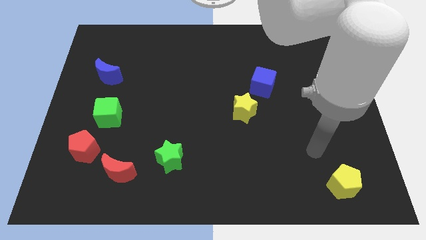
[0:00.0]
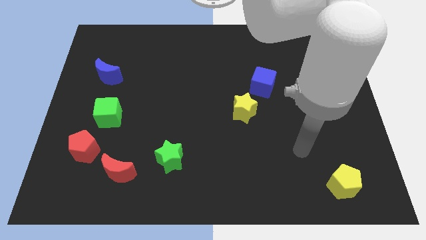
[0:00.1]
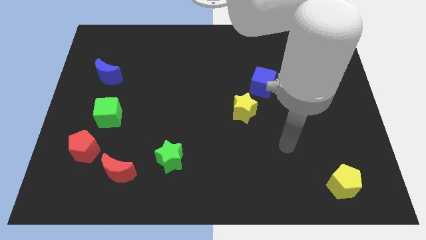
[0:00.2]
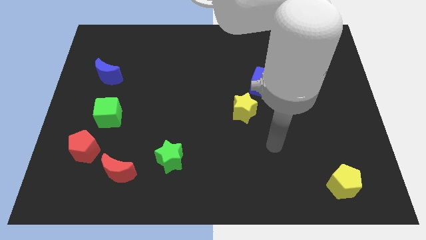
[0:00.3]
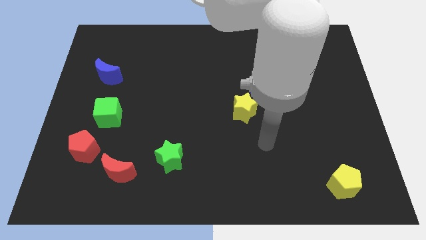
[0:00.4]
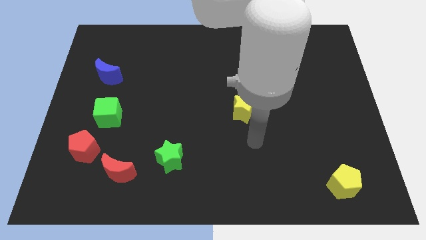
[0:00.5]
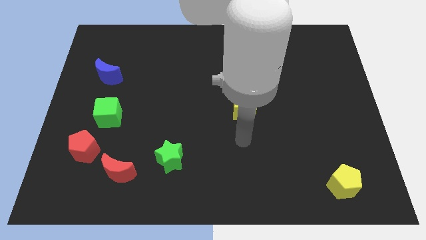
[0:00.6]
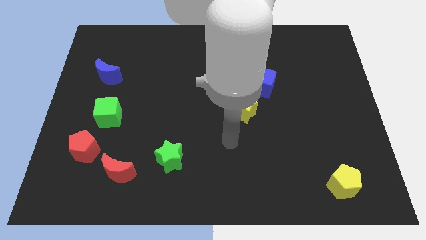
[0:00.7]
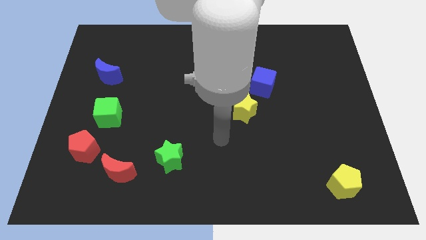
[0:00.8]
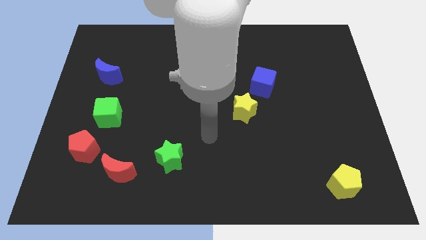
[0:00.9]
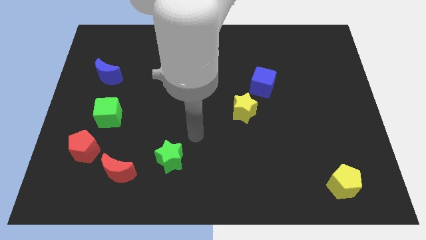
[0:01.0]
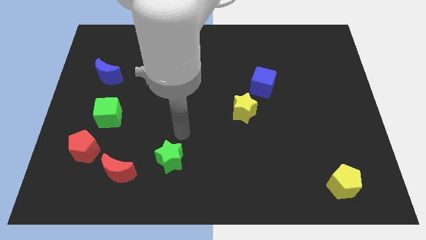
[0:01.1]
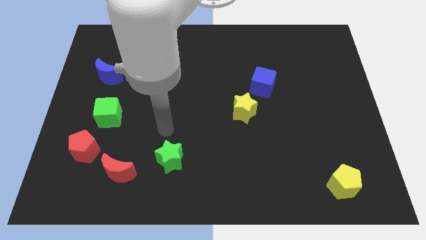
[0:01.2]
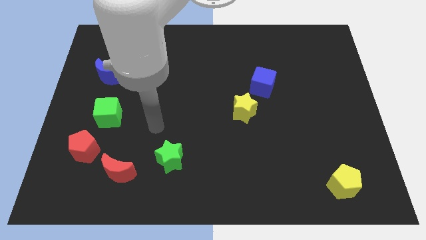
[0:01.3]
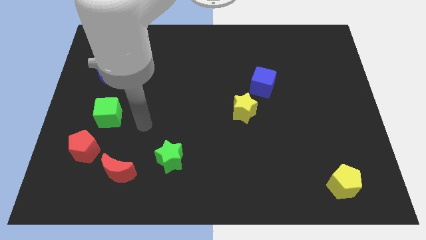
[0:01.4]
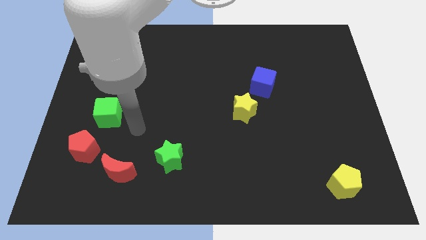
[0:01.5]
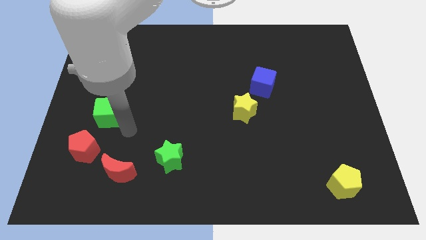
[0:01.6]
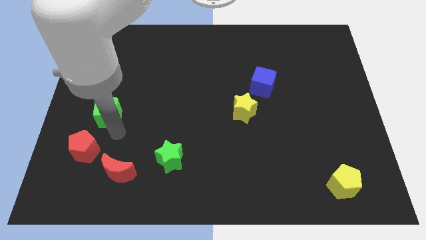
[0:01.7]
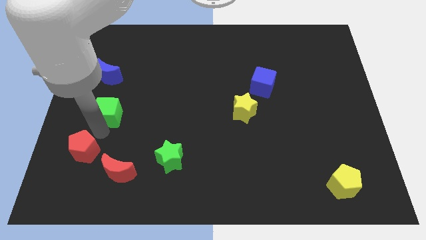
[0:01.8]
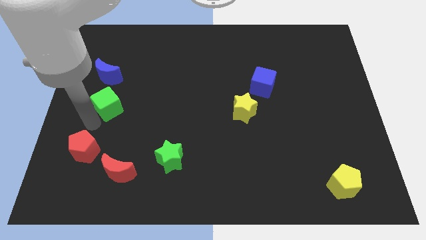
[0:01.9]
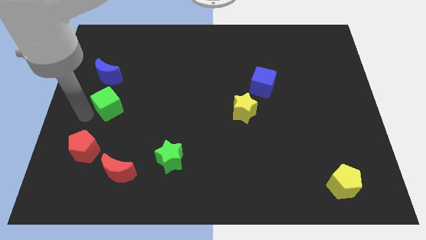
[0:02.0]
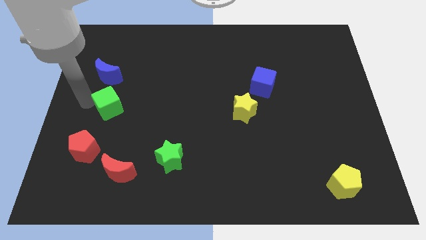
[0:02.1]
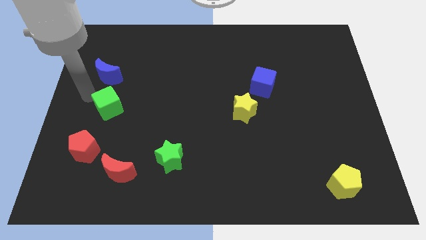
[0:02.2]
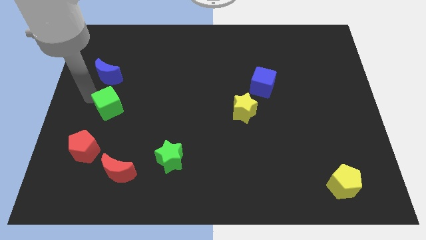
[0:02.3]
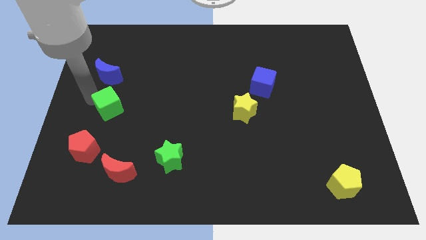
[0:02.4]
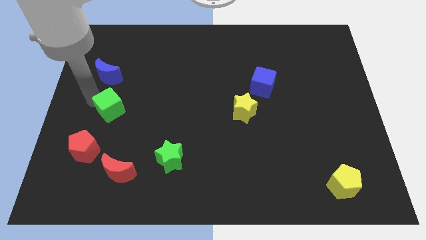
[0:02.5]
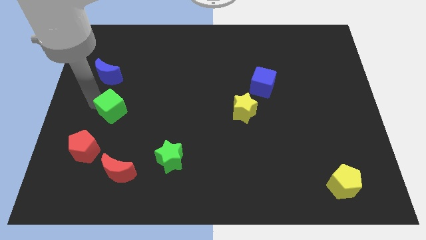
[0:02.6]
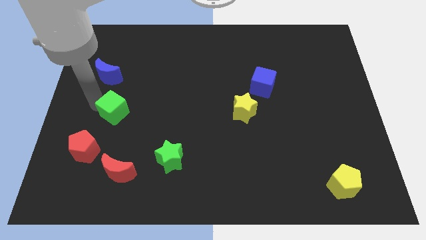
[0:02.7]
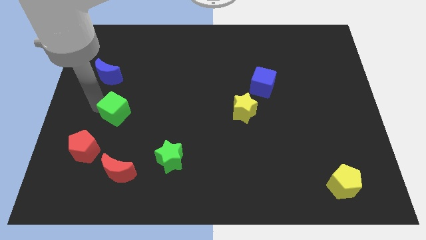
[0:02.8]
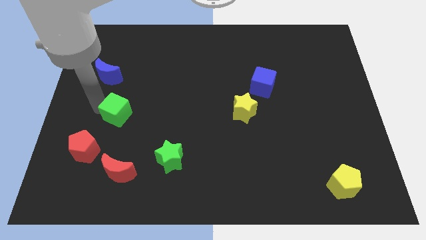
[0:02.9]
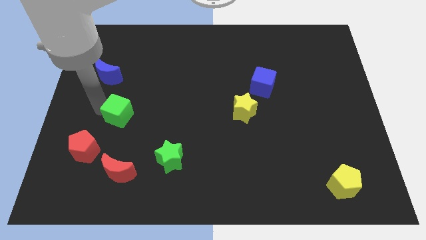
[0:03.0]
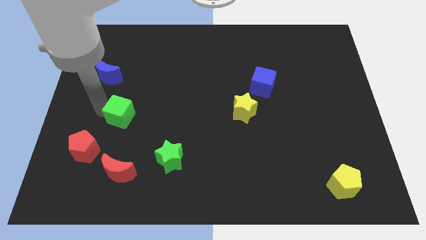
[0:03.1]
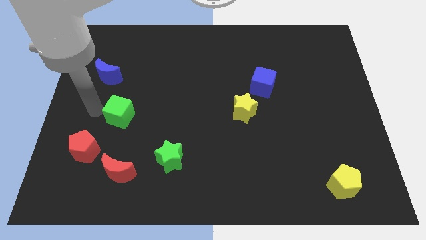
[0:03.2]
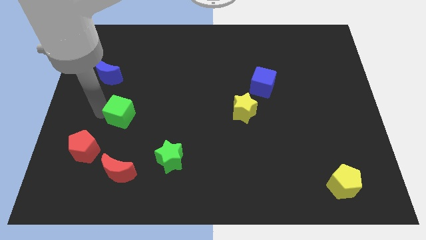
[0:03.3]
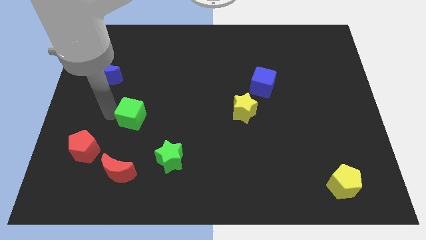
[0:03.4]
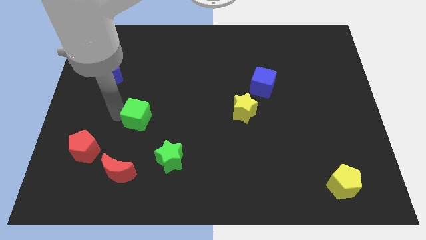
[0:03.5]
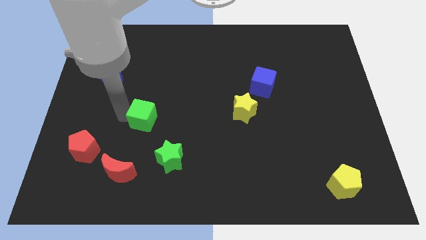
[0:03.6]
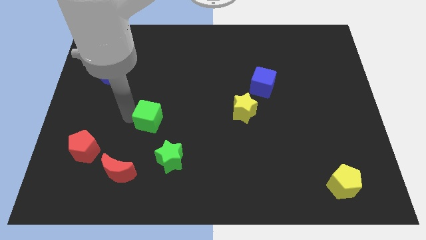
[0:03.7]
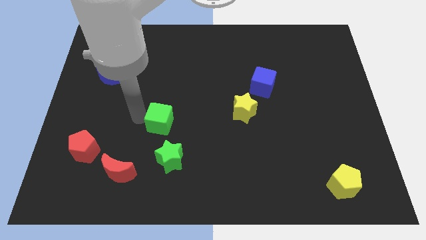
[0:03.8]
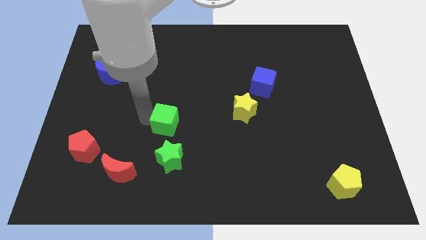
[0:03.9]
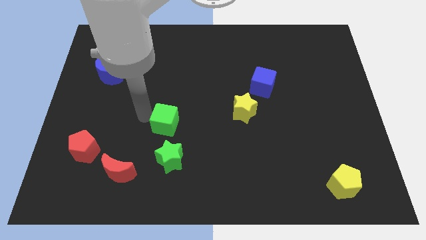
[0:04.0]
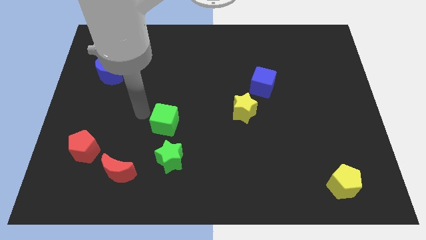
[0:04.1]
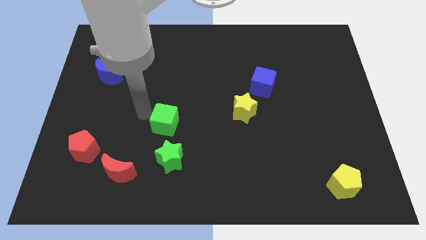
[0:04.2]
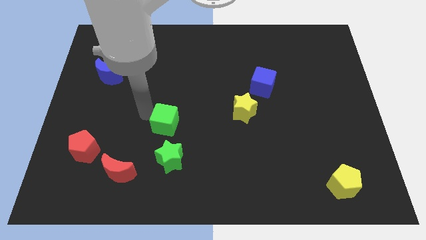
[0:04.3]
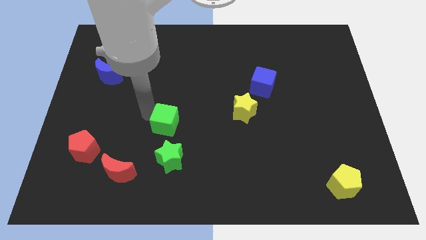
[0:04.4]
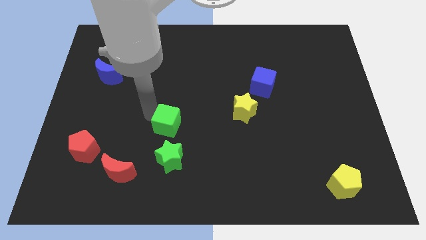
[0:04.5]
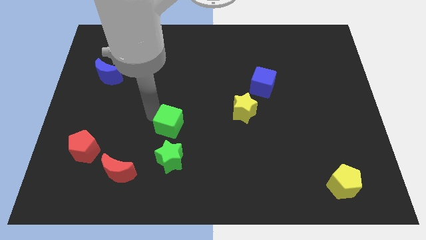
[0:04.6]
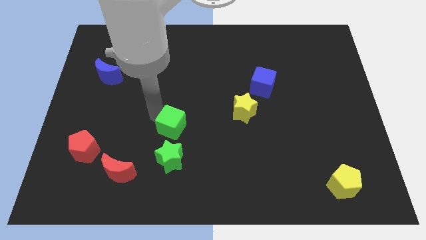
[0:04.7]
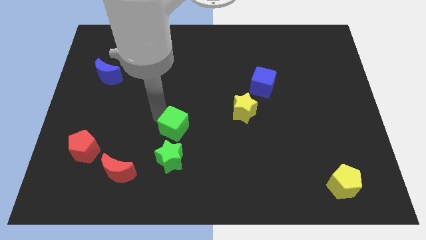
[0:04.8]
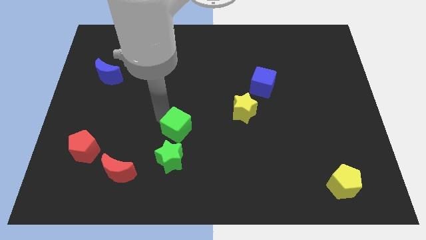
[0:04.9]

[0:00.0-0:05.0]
put the green cube diagonally up and to the right of the green star

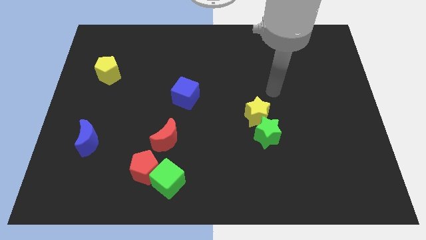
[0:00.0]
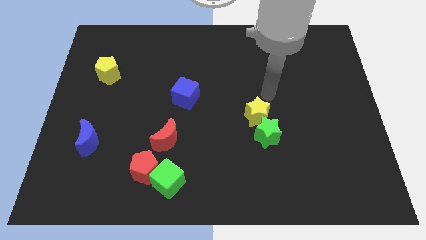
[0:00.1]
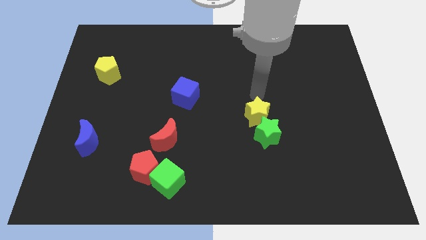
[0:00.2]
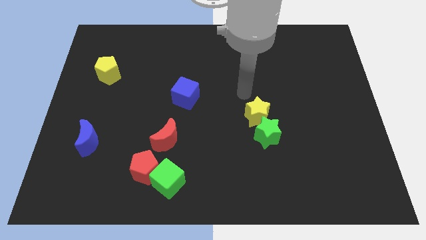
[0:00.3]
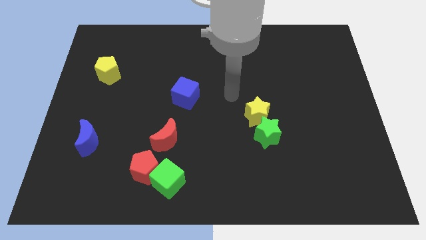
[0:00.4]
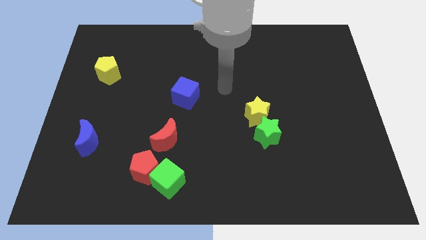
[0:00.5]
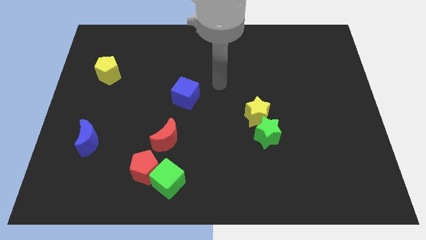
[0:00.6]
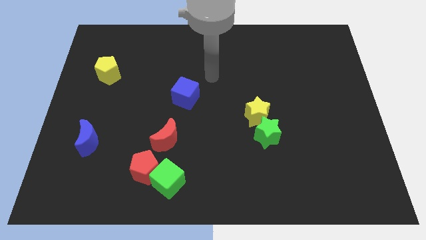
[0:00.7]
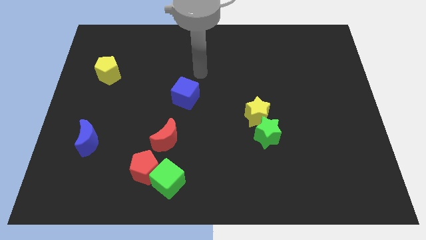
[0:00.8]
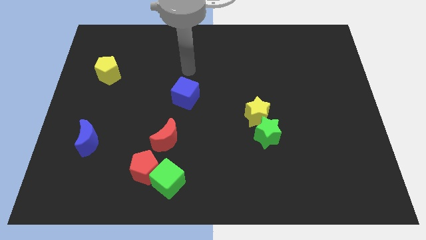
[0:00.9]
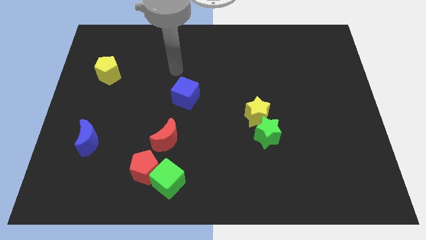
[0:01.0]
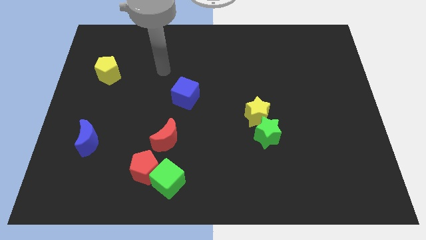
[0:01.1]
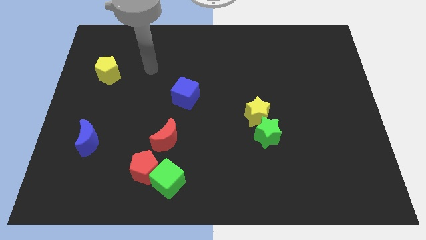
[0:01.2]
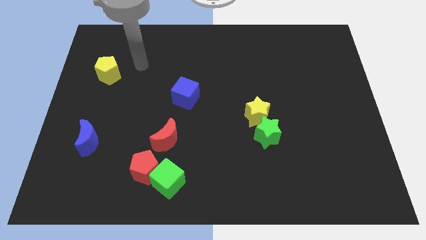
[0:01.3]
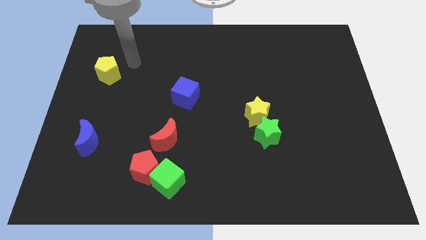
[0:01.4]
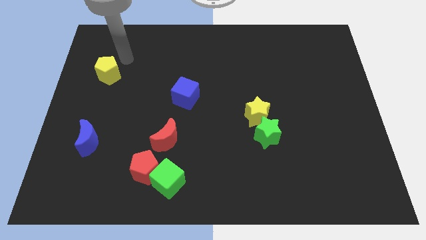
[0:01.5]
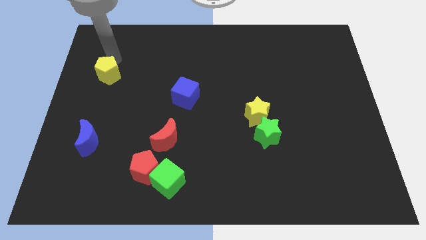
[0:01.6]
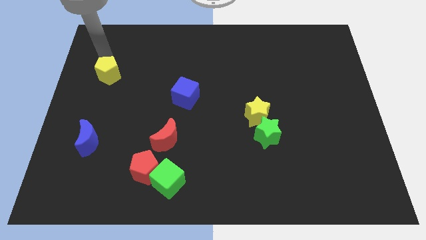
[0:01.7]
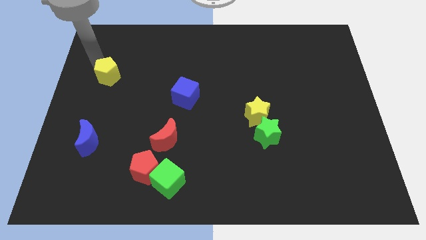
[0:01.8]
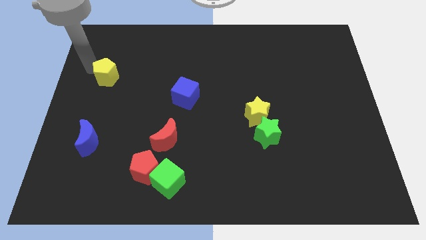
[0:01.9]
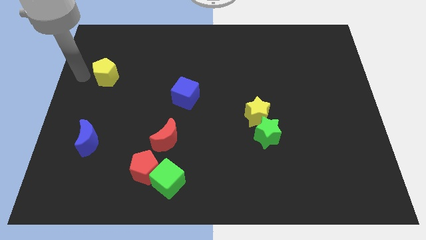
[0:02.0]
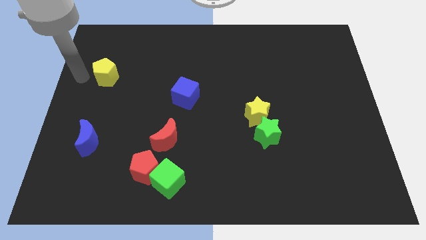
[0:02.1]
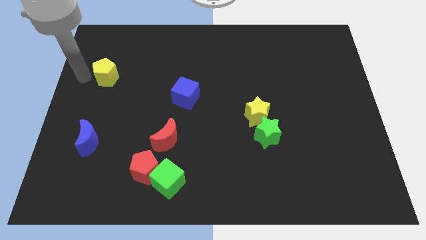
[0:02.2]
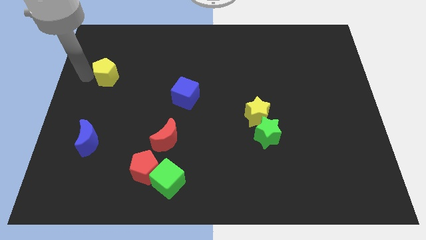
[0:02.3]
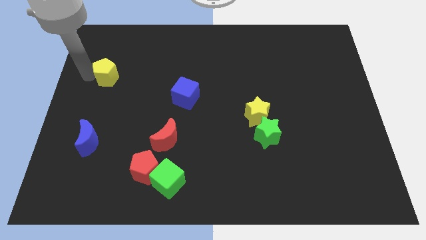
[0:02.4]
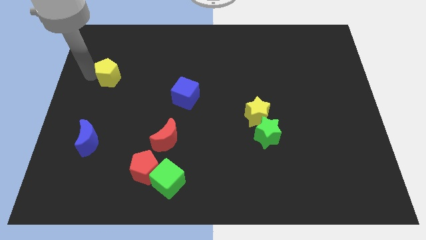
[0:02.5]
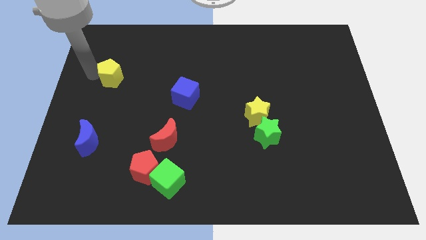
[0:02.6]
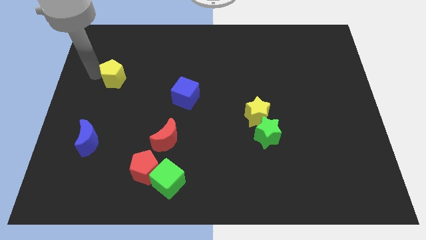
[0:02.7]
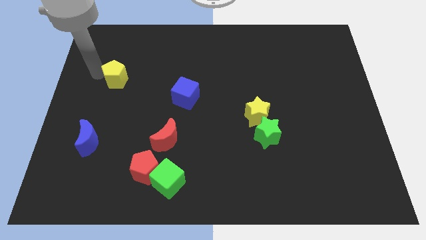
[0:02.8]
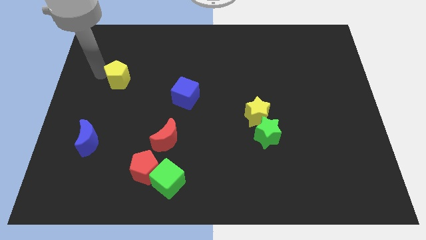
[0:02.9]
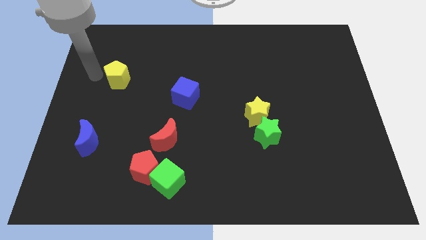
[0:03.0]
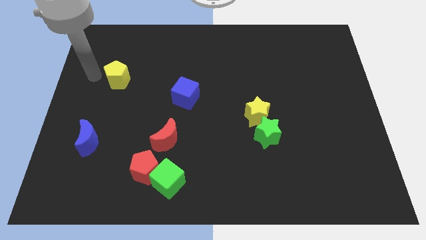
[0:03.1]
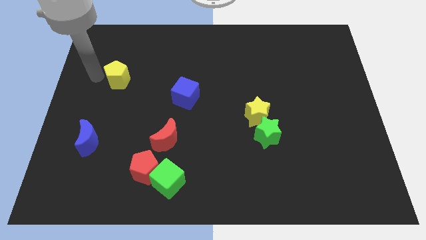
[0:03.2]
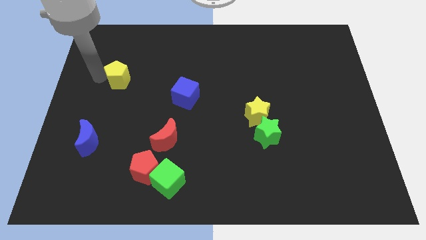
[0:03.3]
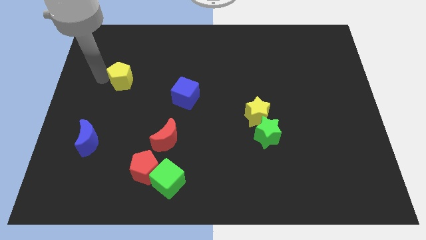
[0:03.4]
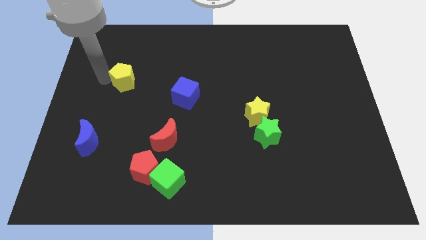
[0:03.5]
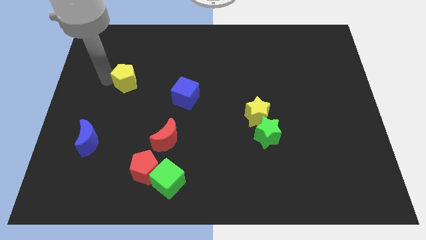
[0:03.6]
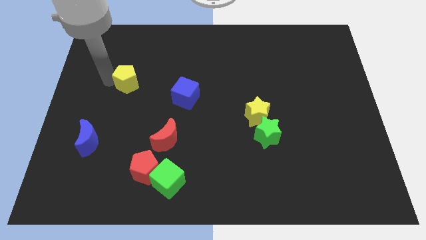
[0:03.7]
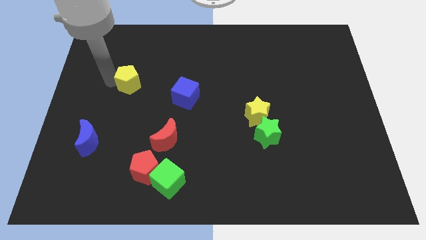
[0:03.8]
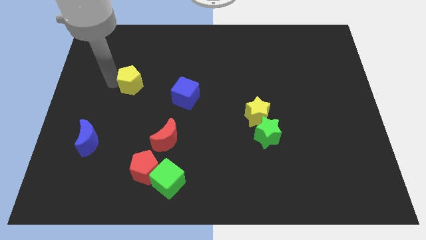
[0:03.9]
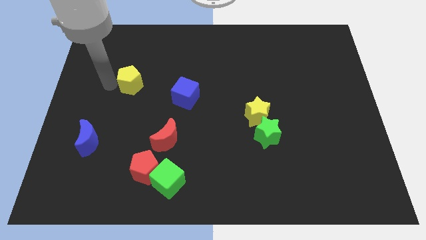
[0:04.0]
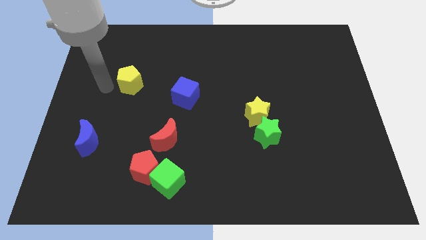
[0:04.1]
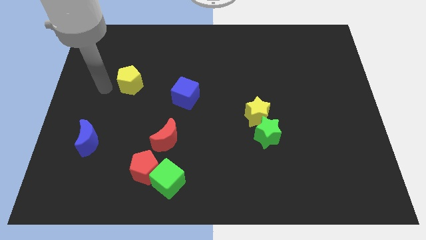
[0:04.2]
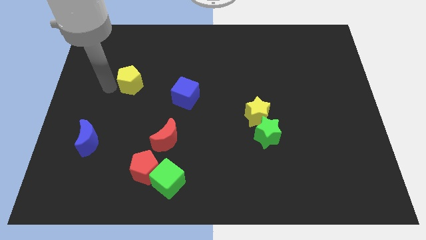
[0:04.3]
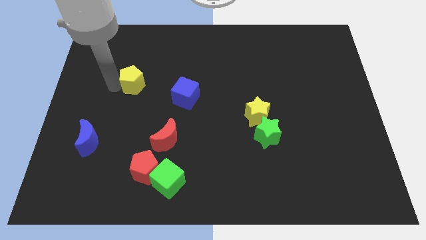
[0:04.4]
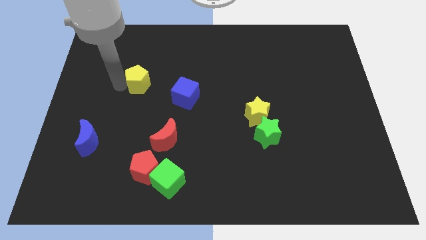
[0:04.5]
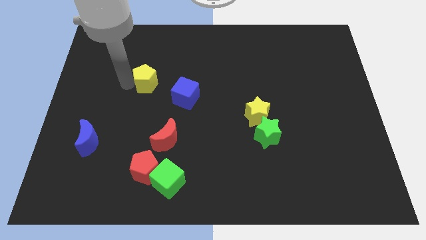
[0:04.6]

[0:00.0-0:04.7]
slide the yellow pentagon diagonally up and to the left of the blue cube
